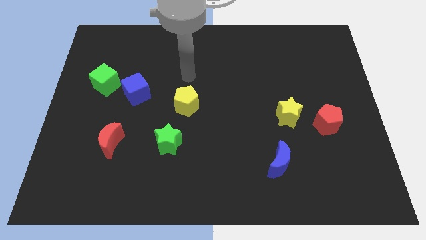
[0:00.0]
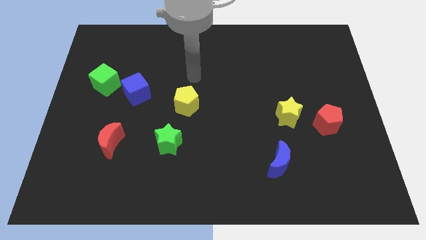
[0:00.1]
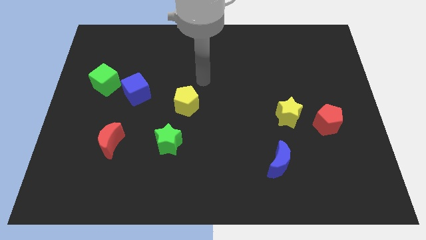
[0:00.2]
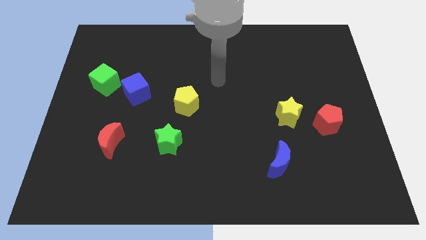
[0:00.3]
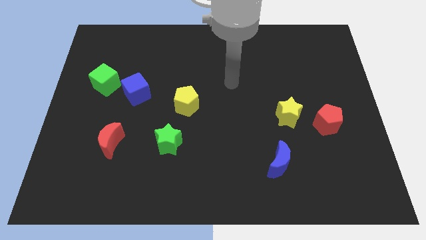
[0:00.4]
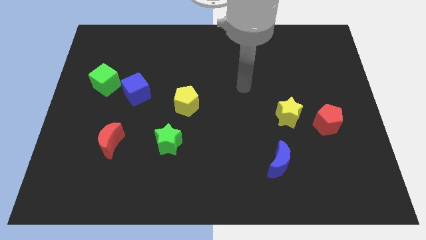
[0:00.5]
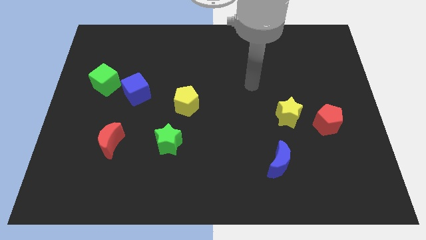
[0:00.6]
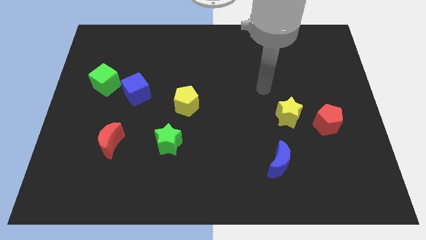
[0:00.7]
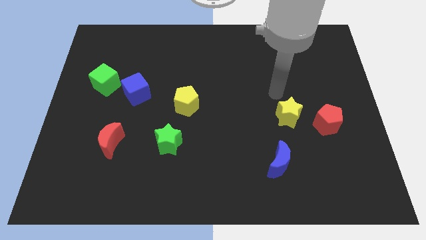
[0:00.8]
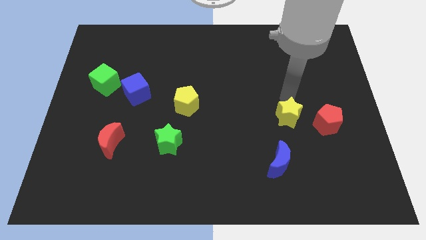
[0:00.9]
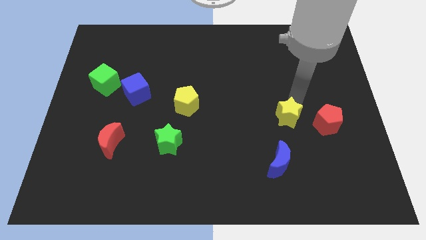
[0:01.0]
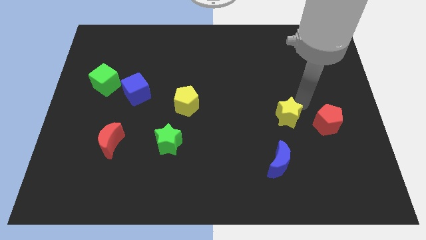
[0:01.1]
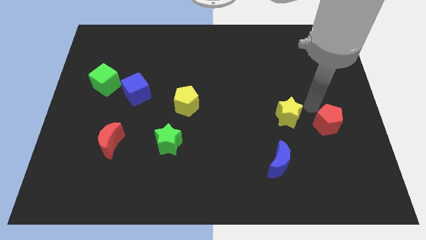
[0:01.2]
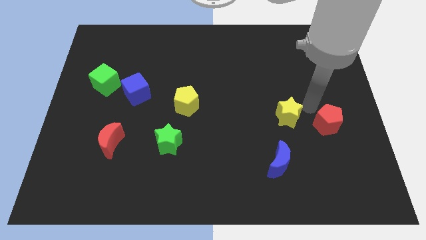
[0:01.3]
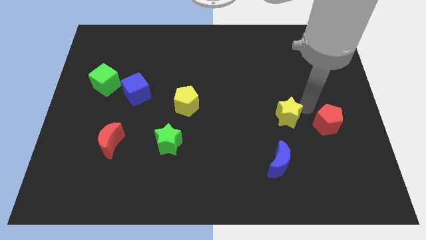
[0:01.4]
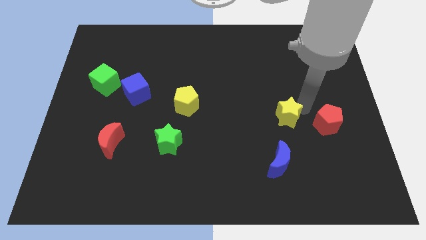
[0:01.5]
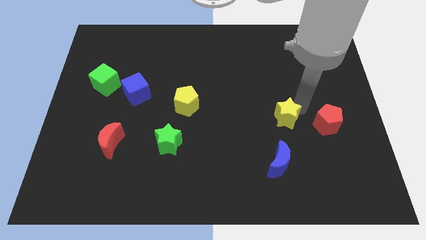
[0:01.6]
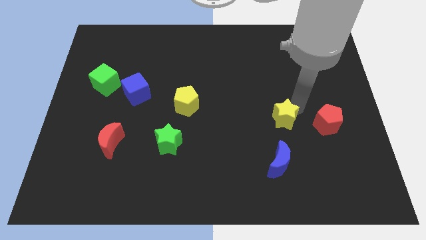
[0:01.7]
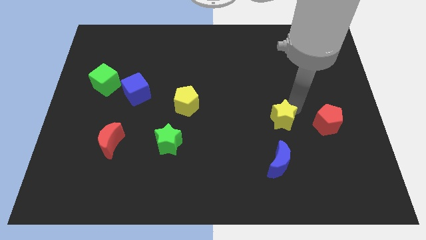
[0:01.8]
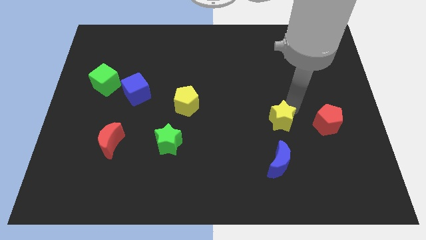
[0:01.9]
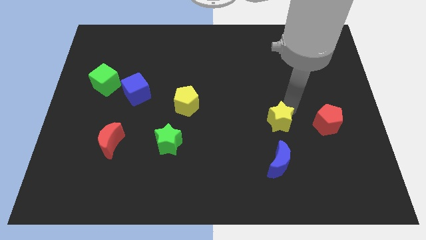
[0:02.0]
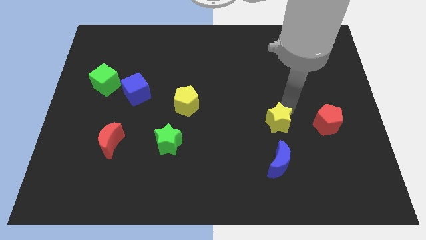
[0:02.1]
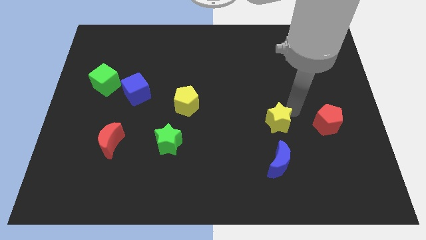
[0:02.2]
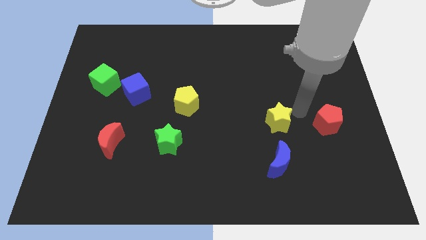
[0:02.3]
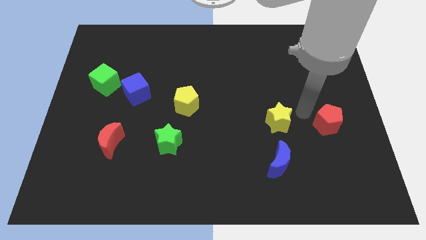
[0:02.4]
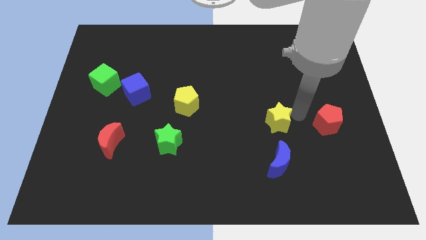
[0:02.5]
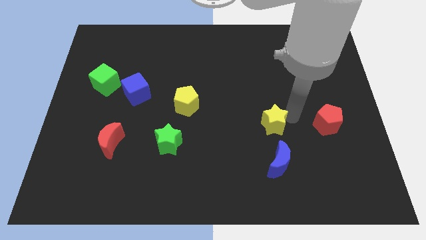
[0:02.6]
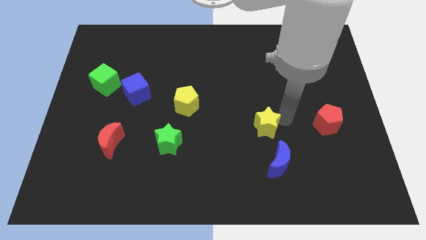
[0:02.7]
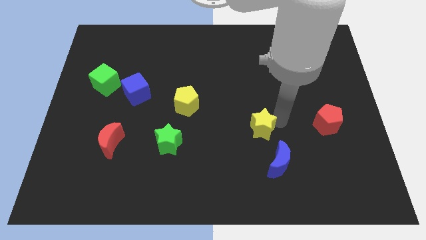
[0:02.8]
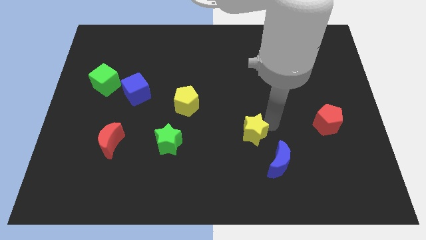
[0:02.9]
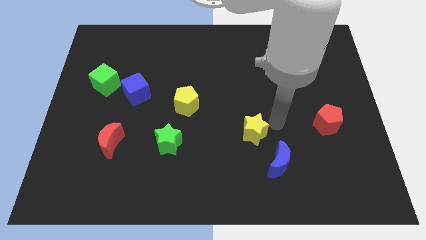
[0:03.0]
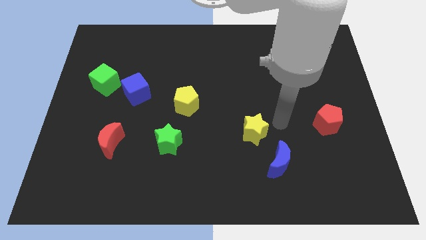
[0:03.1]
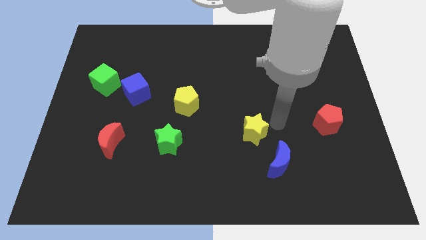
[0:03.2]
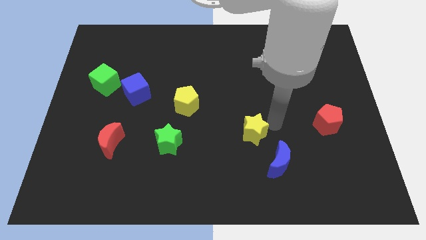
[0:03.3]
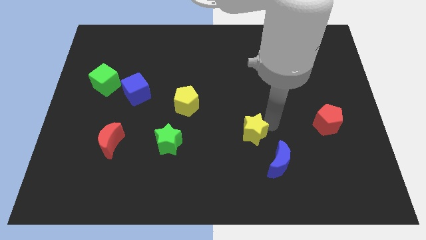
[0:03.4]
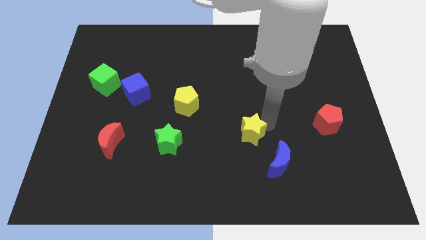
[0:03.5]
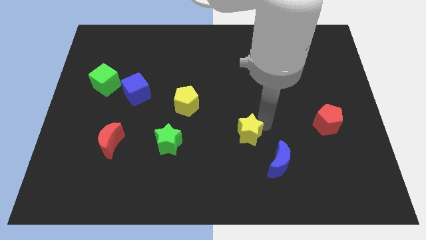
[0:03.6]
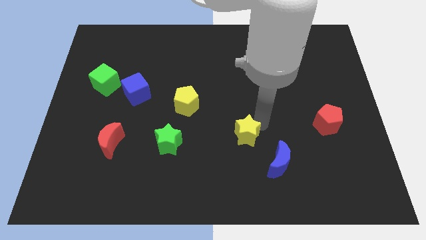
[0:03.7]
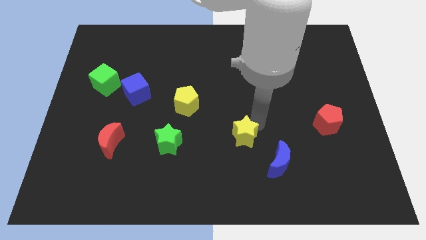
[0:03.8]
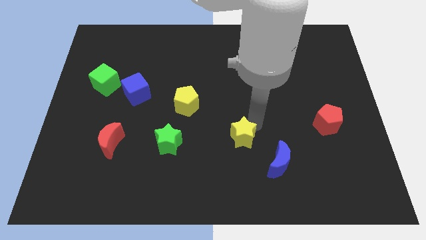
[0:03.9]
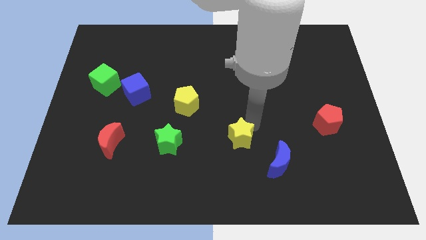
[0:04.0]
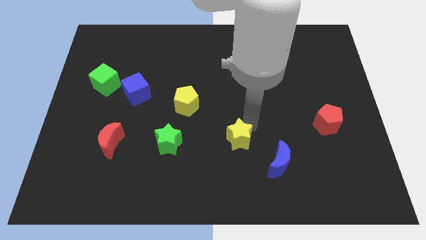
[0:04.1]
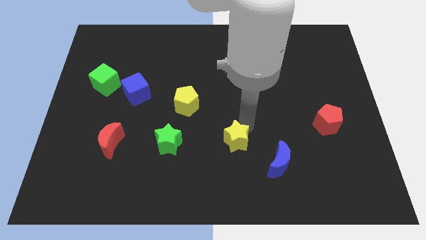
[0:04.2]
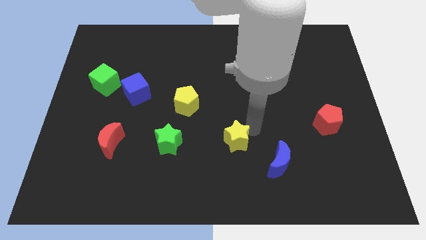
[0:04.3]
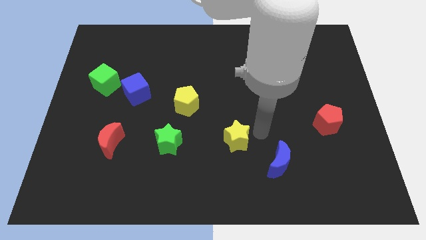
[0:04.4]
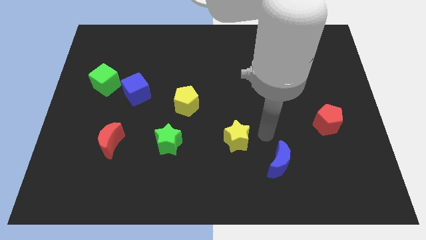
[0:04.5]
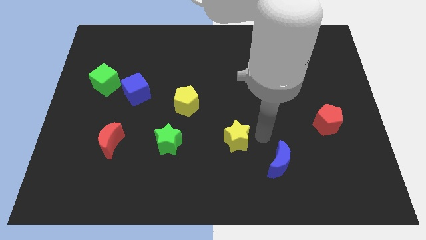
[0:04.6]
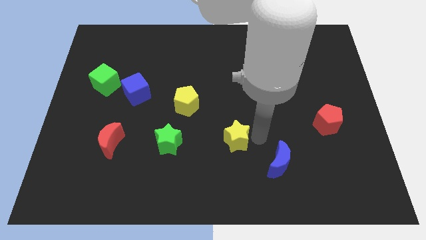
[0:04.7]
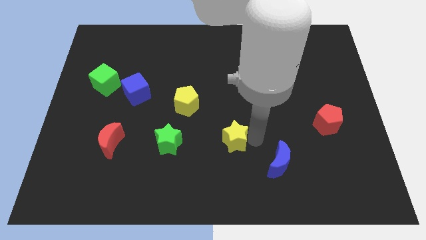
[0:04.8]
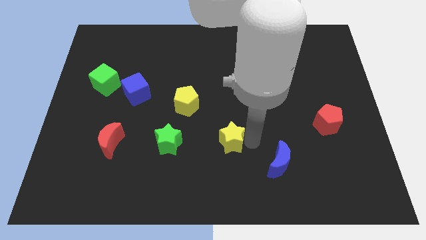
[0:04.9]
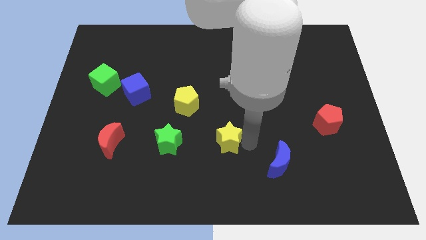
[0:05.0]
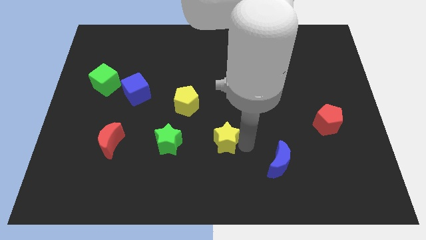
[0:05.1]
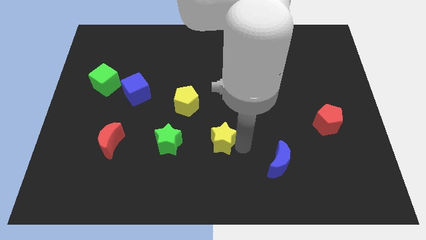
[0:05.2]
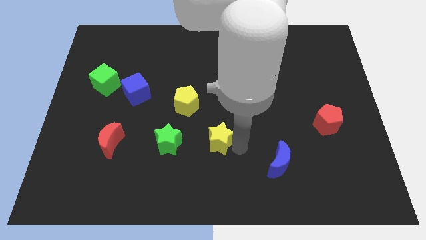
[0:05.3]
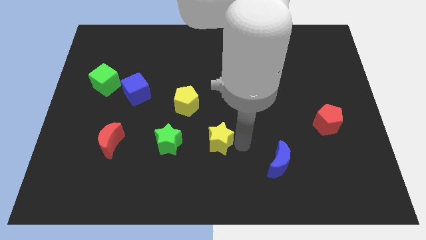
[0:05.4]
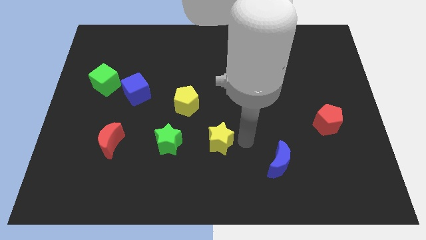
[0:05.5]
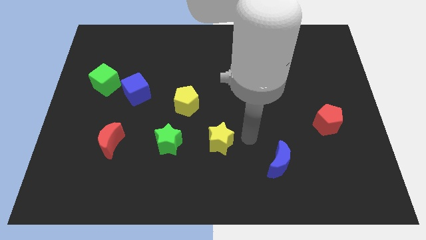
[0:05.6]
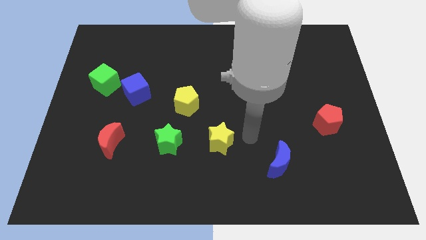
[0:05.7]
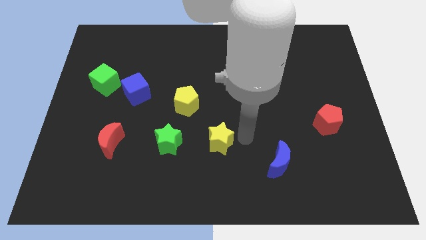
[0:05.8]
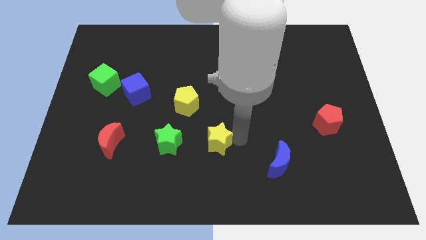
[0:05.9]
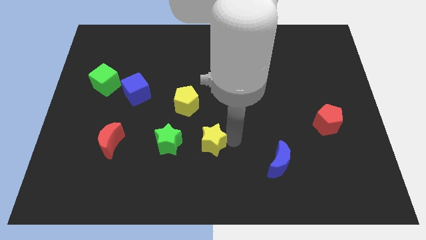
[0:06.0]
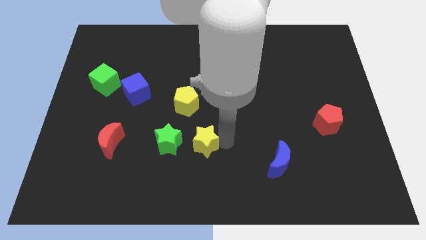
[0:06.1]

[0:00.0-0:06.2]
put the yellow star to the bottom side of the yellow pentagon

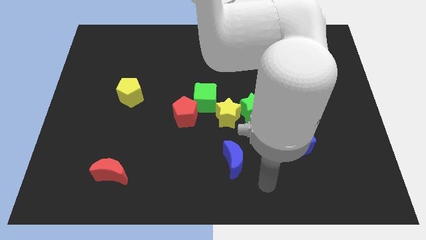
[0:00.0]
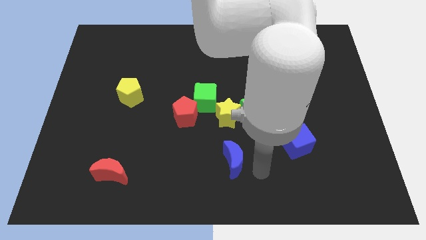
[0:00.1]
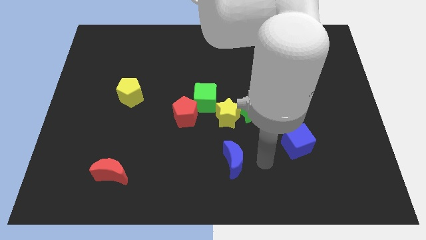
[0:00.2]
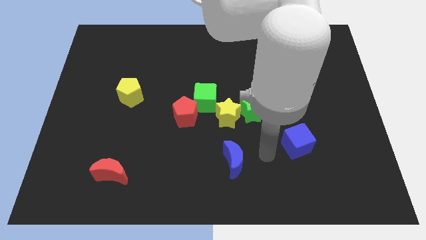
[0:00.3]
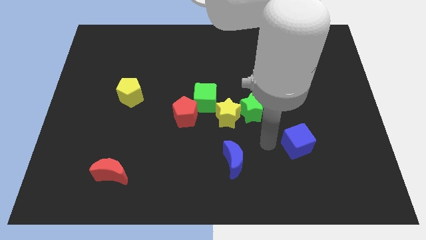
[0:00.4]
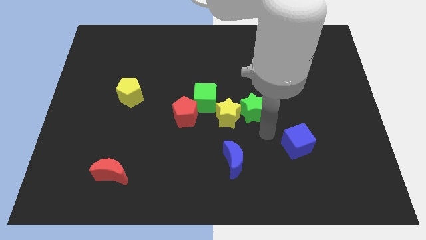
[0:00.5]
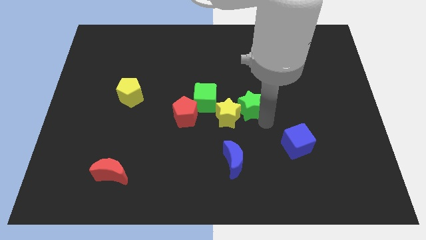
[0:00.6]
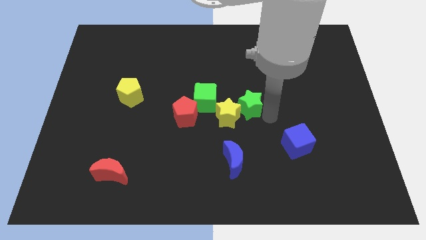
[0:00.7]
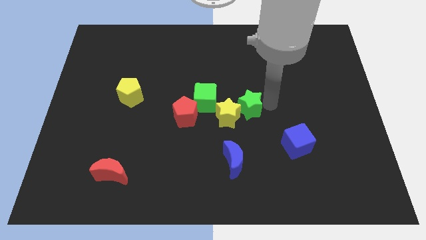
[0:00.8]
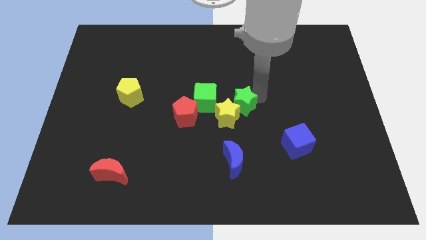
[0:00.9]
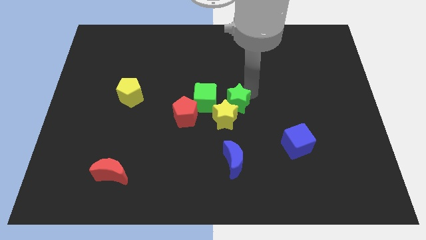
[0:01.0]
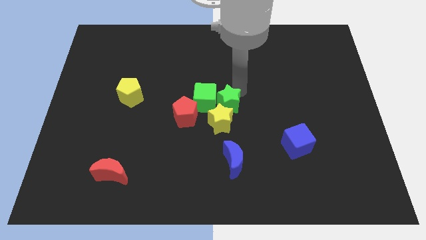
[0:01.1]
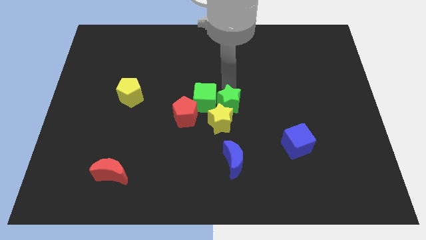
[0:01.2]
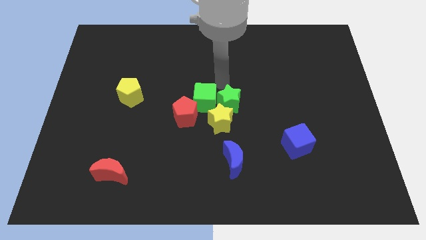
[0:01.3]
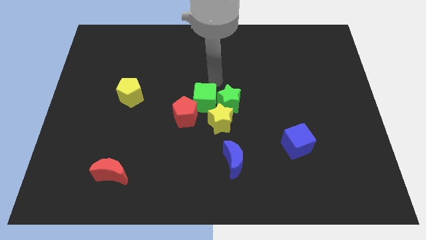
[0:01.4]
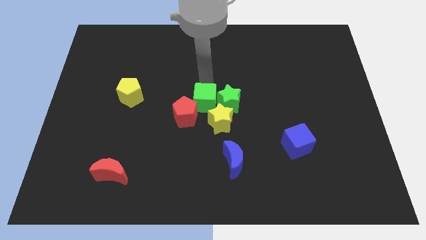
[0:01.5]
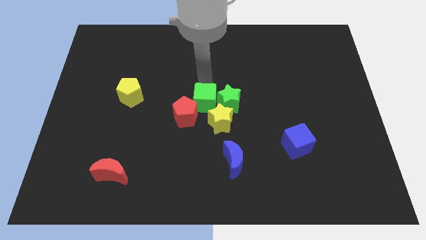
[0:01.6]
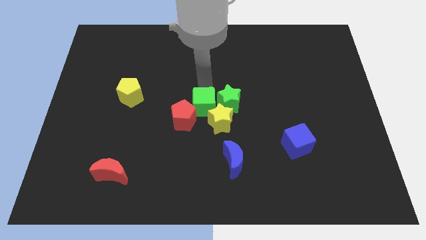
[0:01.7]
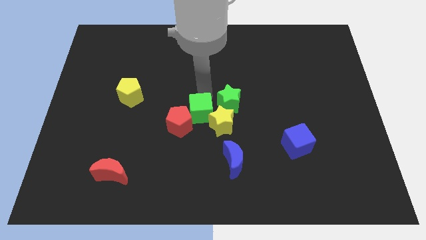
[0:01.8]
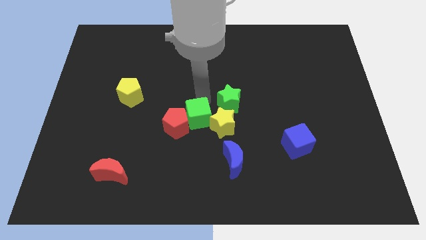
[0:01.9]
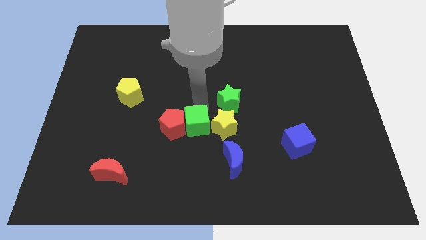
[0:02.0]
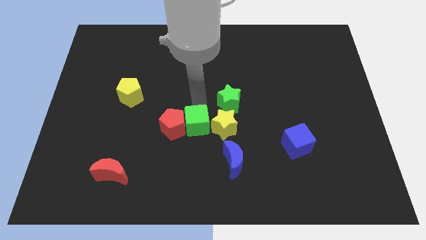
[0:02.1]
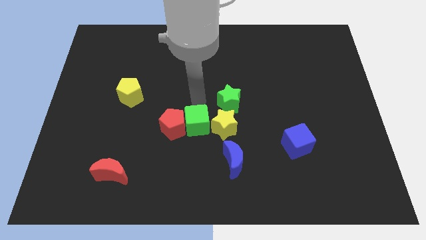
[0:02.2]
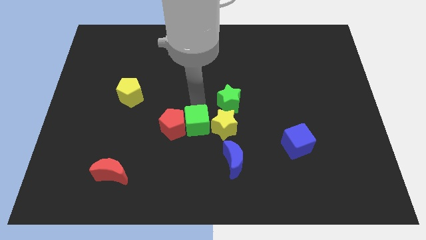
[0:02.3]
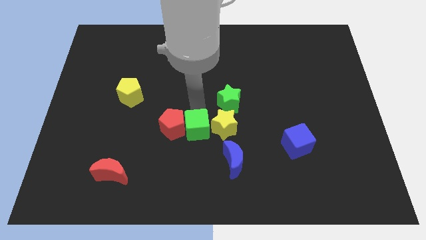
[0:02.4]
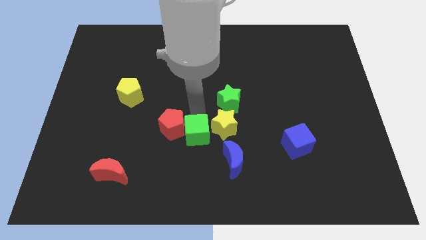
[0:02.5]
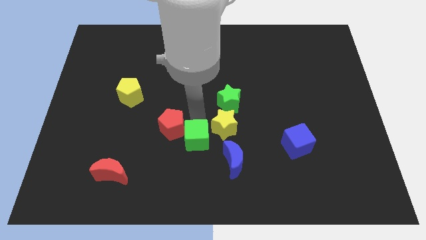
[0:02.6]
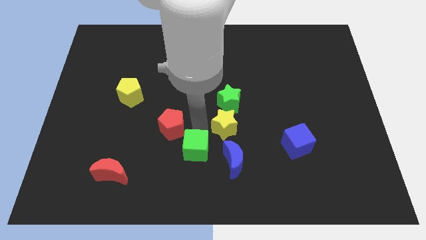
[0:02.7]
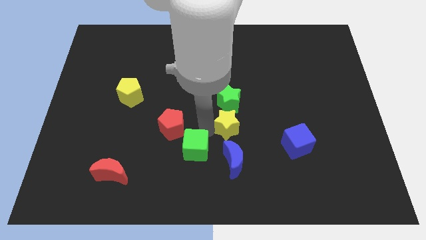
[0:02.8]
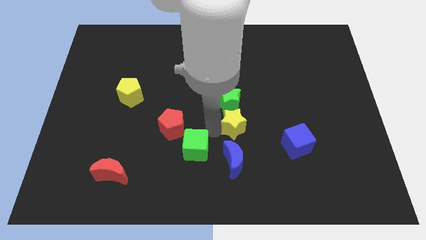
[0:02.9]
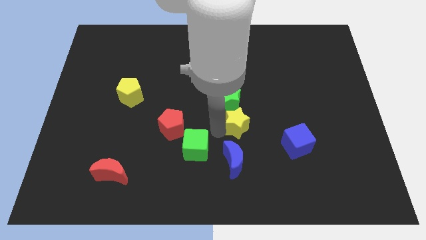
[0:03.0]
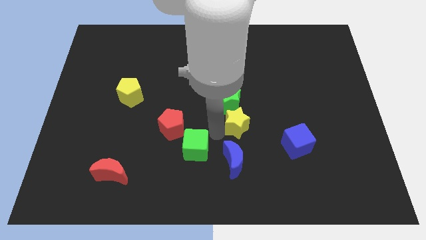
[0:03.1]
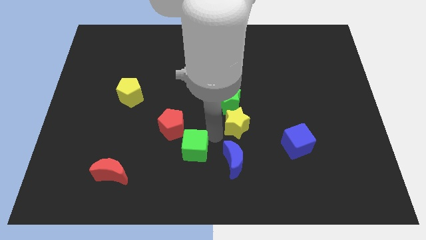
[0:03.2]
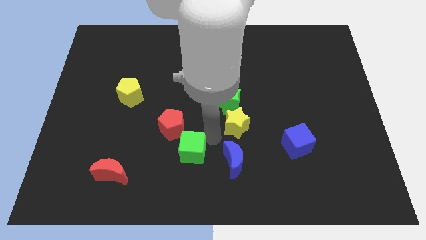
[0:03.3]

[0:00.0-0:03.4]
push the green cube to the bottom of the red pentagon
